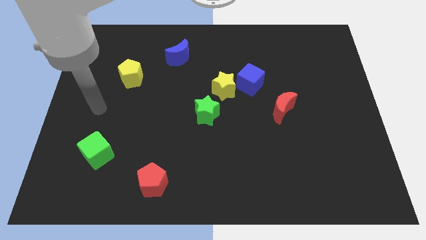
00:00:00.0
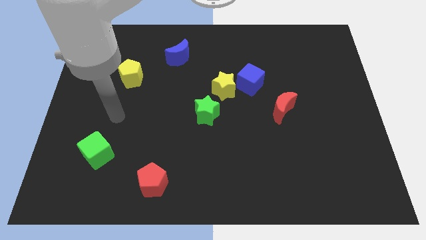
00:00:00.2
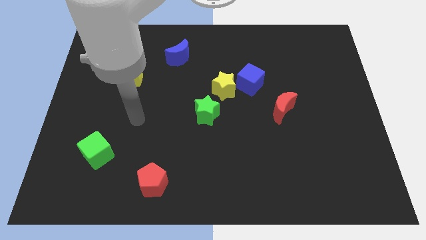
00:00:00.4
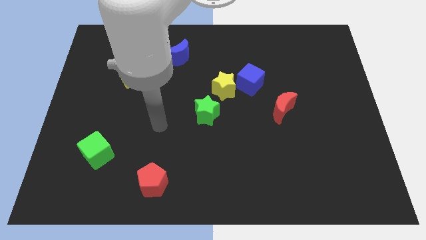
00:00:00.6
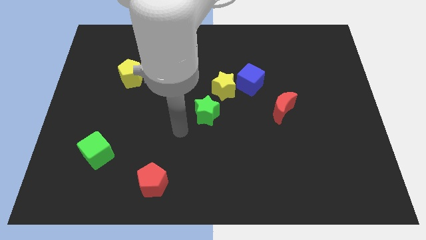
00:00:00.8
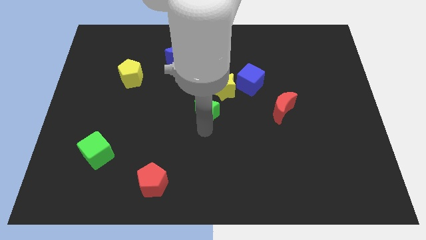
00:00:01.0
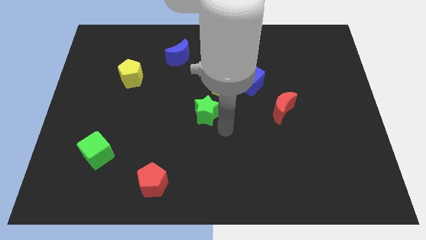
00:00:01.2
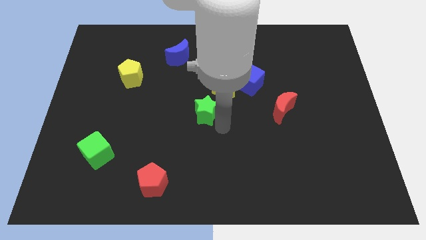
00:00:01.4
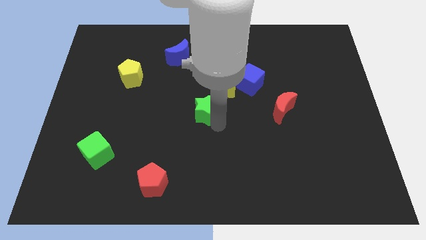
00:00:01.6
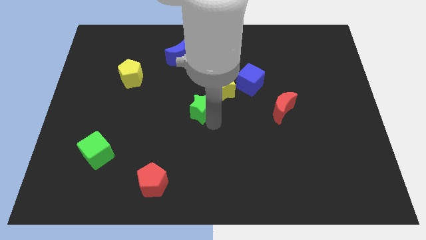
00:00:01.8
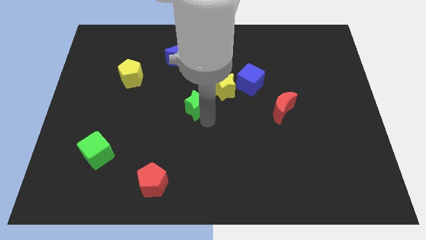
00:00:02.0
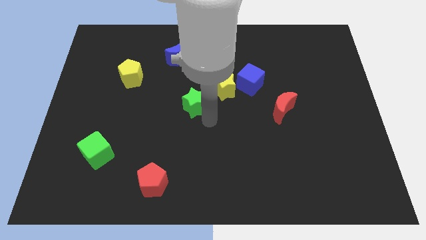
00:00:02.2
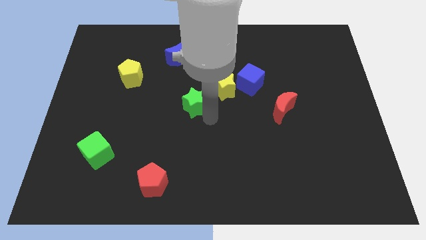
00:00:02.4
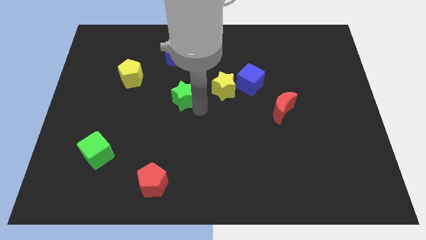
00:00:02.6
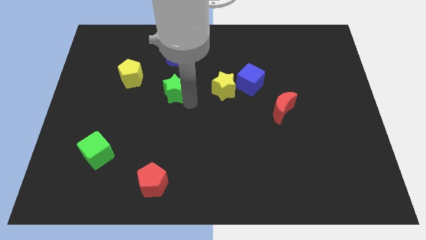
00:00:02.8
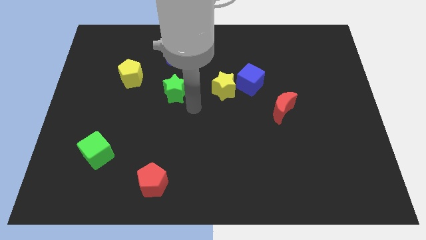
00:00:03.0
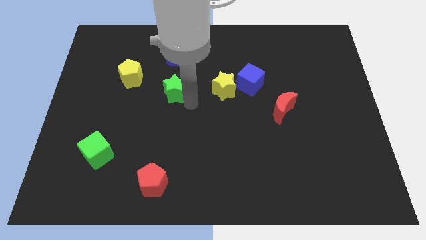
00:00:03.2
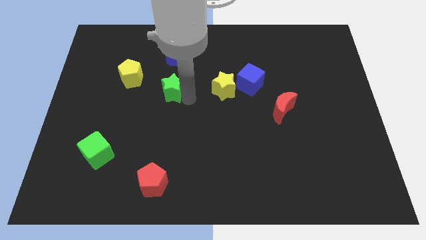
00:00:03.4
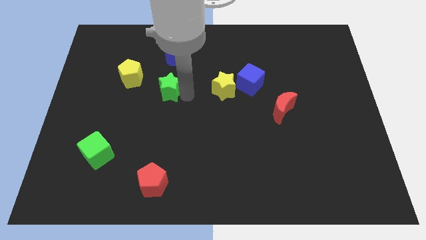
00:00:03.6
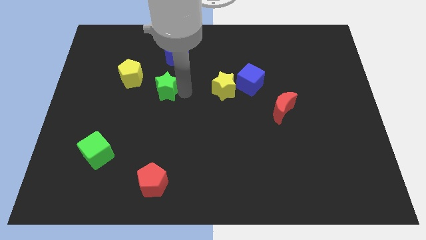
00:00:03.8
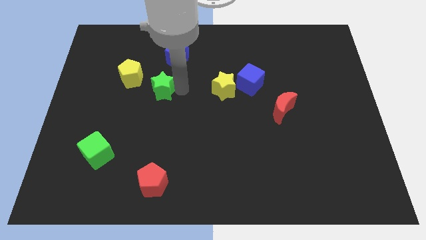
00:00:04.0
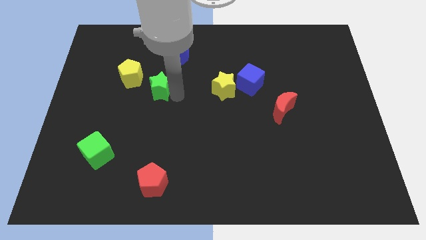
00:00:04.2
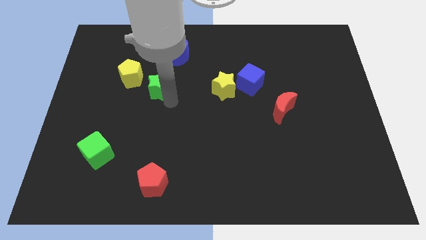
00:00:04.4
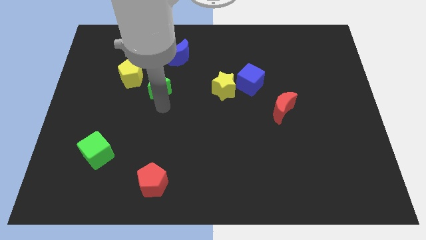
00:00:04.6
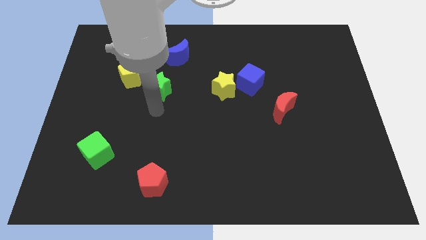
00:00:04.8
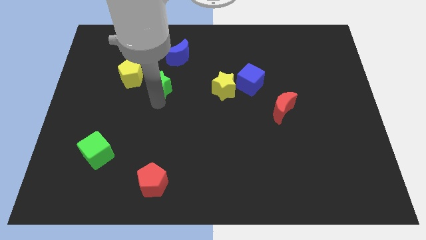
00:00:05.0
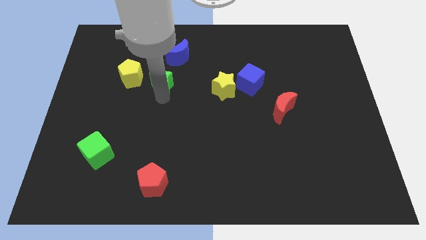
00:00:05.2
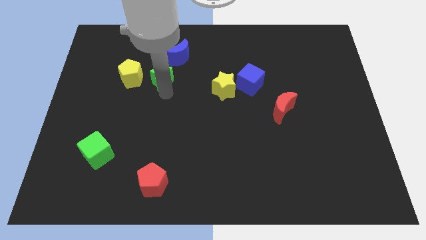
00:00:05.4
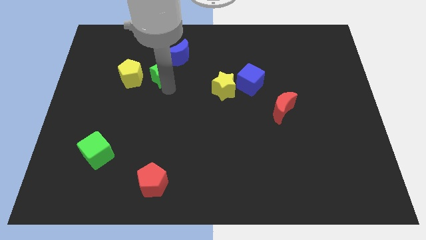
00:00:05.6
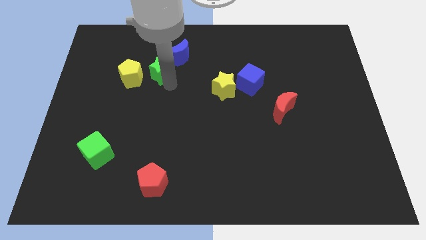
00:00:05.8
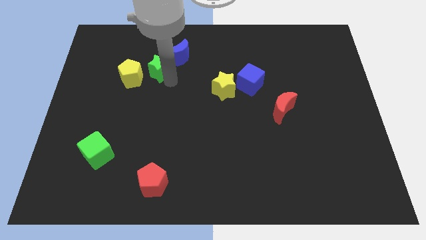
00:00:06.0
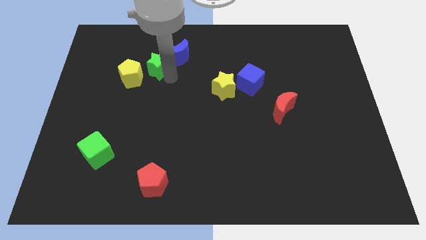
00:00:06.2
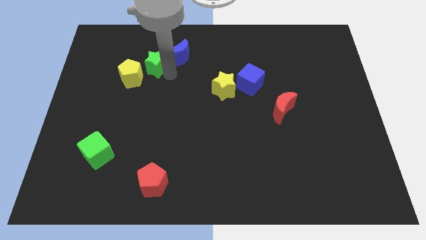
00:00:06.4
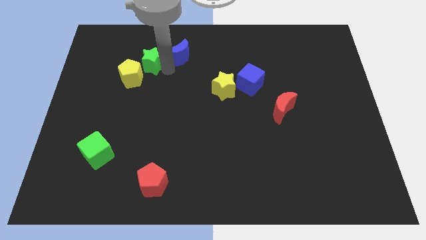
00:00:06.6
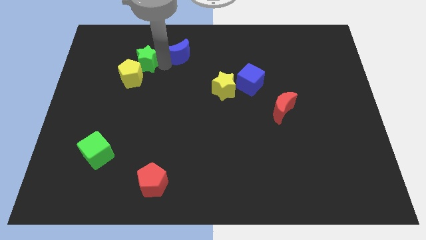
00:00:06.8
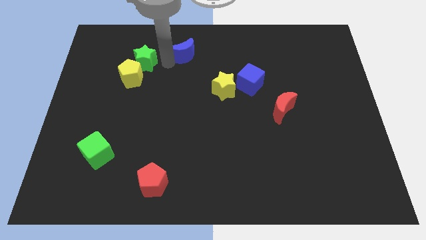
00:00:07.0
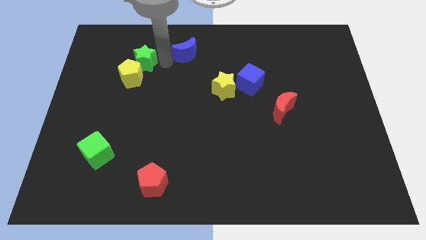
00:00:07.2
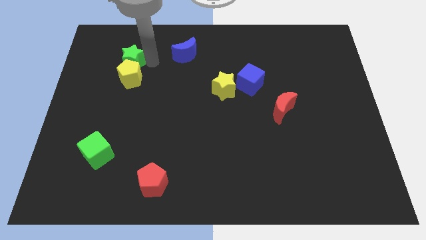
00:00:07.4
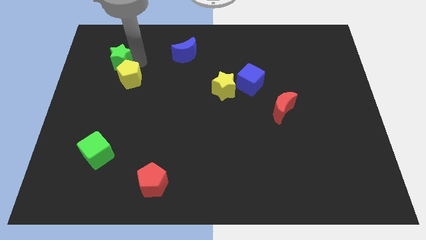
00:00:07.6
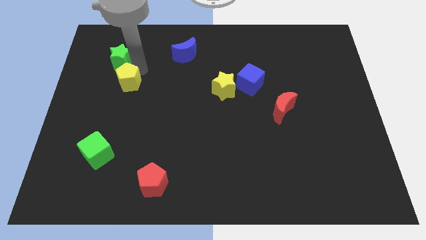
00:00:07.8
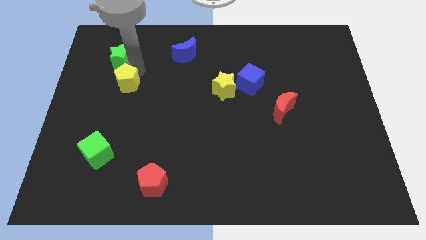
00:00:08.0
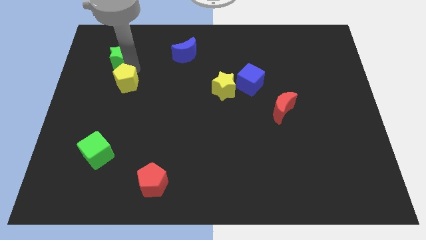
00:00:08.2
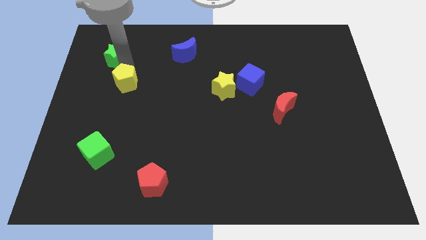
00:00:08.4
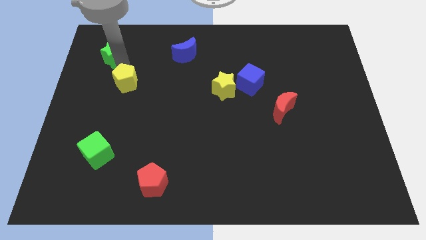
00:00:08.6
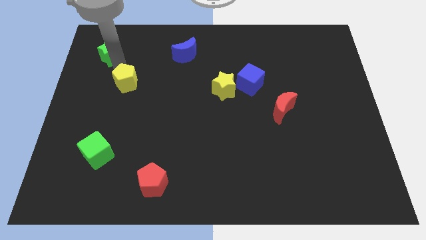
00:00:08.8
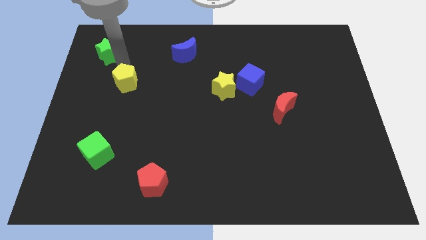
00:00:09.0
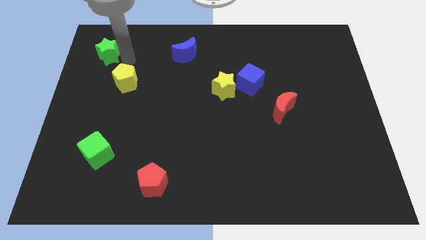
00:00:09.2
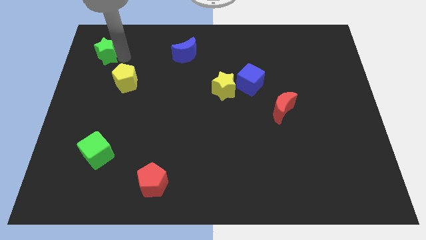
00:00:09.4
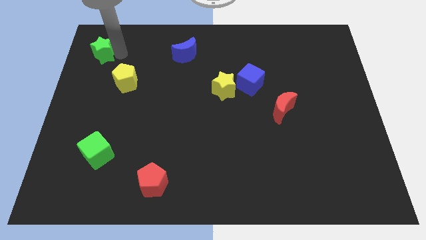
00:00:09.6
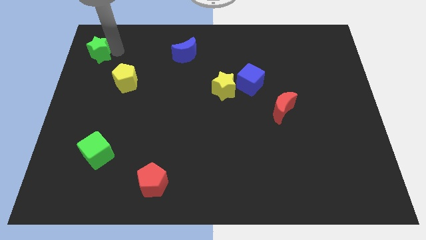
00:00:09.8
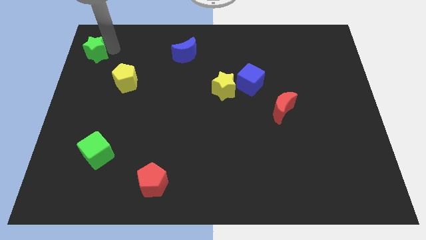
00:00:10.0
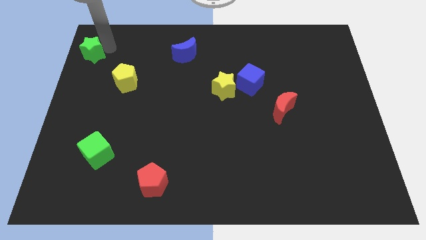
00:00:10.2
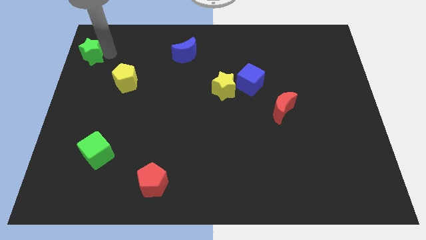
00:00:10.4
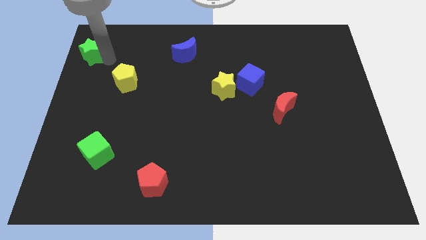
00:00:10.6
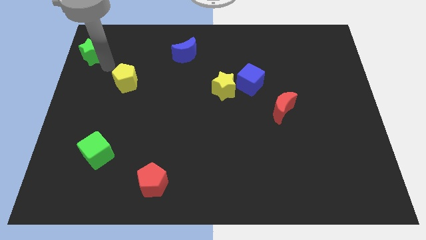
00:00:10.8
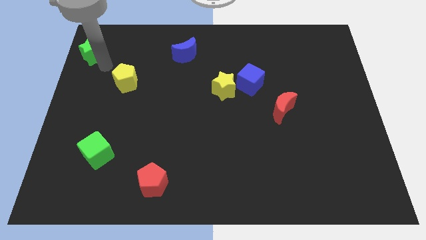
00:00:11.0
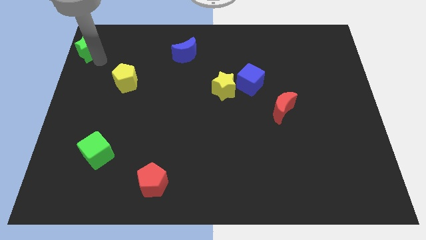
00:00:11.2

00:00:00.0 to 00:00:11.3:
slide the green star to the top left corner
